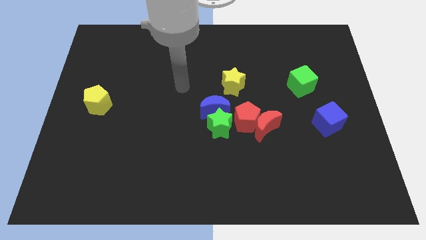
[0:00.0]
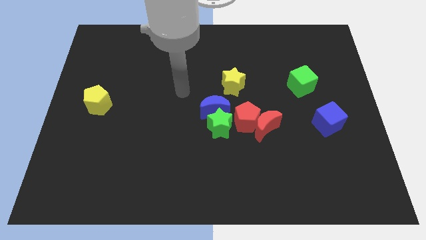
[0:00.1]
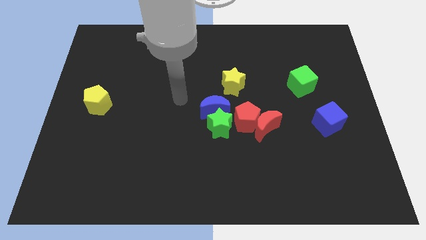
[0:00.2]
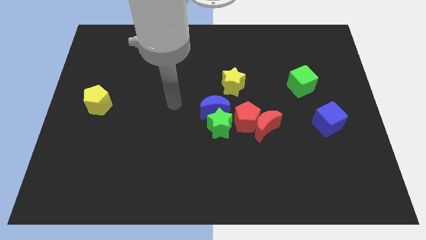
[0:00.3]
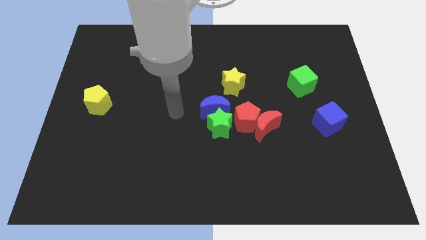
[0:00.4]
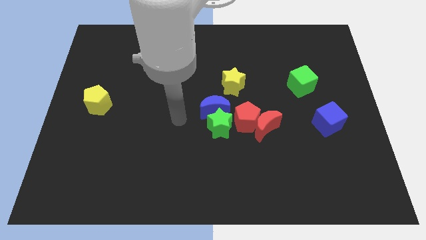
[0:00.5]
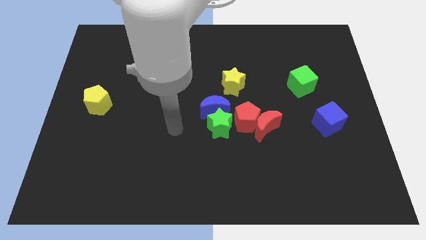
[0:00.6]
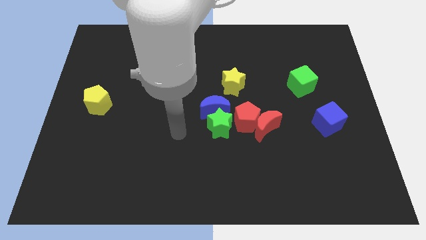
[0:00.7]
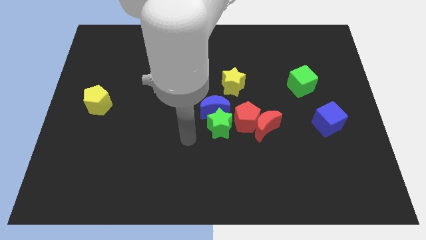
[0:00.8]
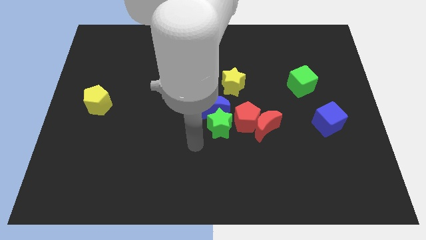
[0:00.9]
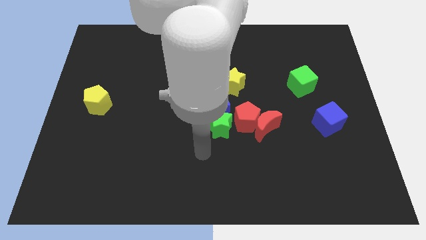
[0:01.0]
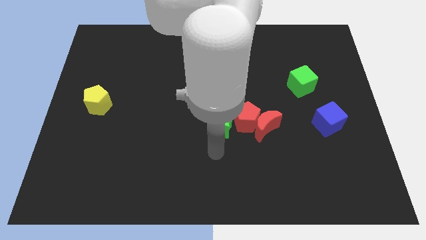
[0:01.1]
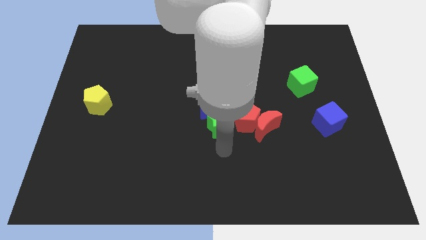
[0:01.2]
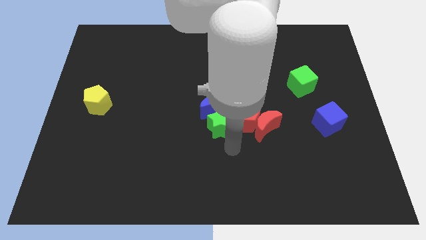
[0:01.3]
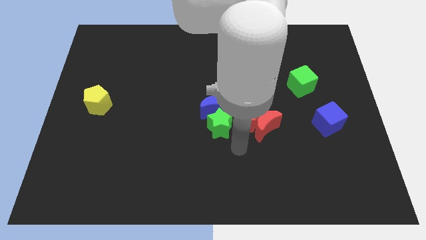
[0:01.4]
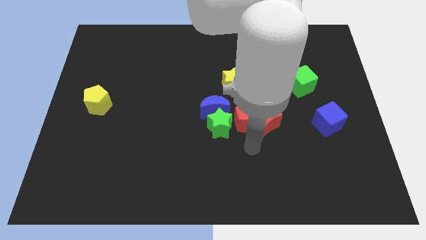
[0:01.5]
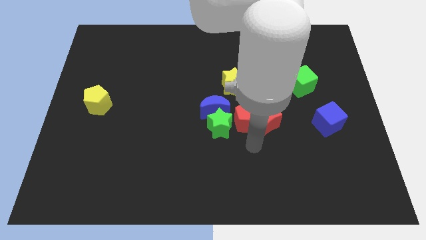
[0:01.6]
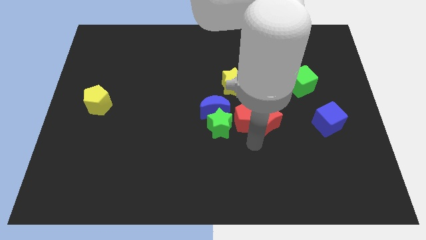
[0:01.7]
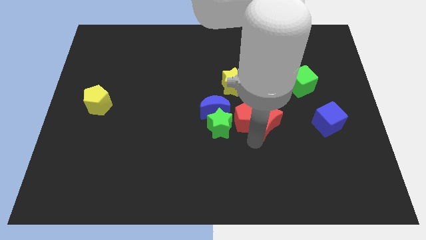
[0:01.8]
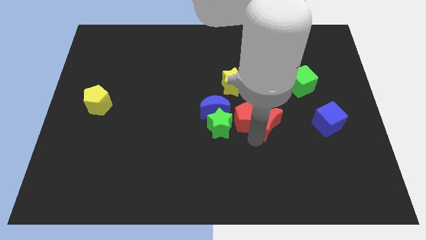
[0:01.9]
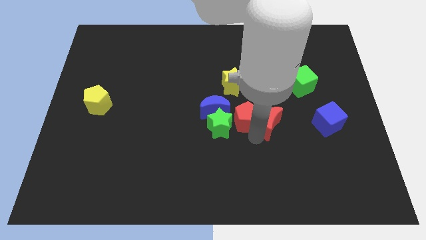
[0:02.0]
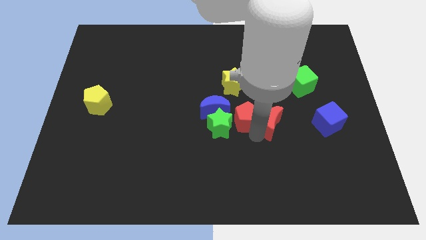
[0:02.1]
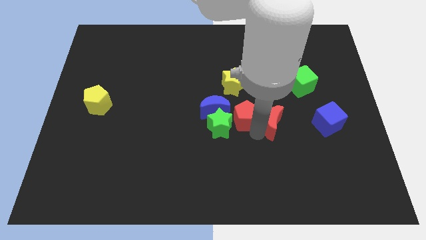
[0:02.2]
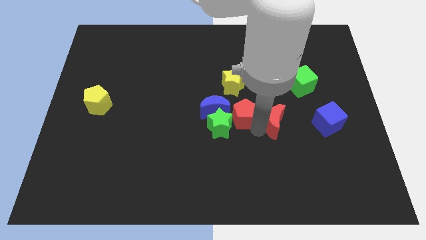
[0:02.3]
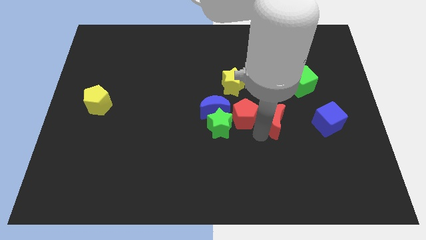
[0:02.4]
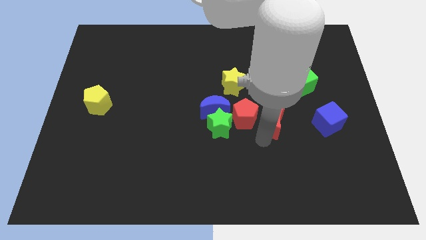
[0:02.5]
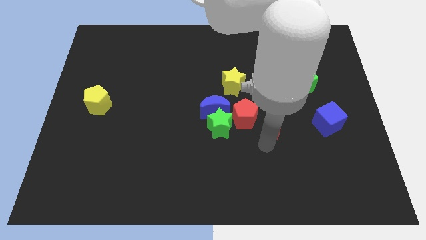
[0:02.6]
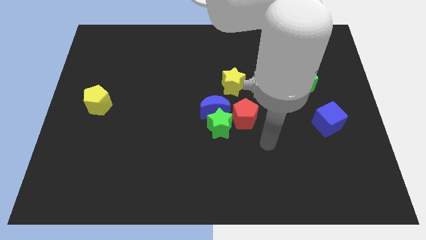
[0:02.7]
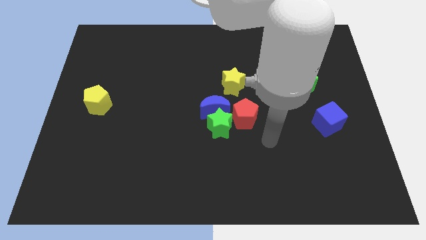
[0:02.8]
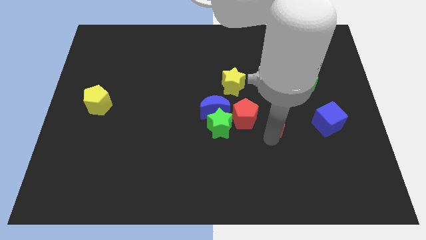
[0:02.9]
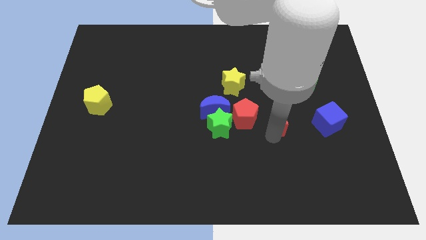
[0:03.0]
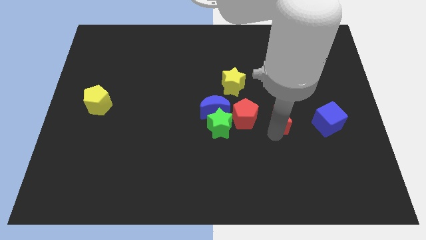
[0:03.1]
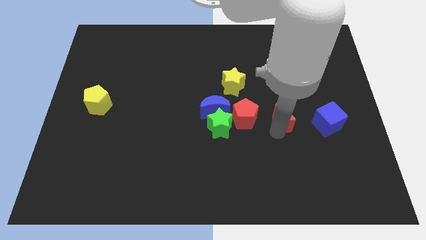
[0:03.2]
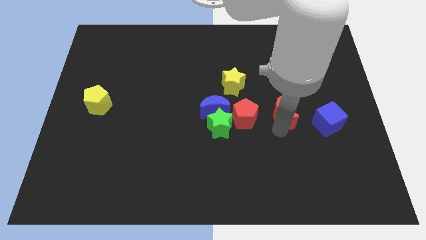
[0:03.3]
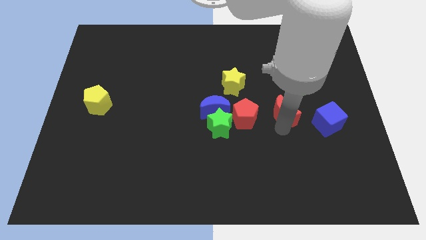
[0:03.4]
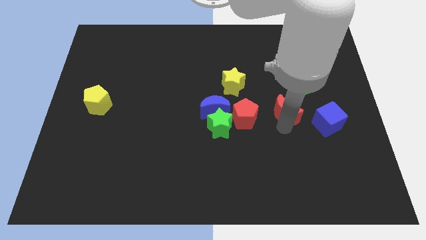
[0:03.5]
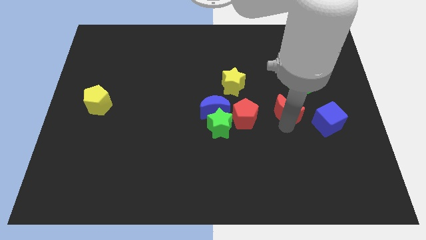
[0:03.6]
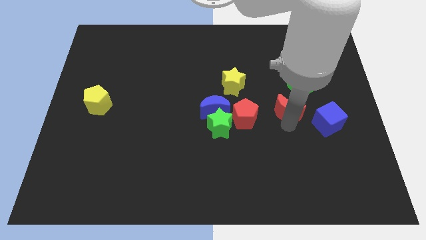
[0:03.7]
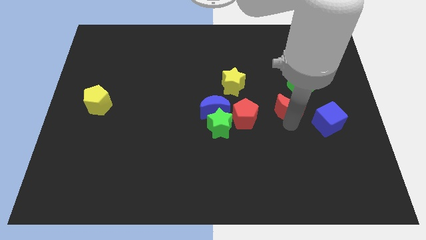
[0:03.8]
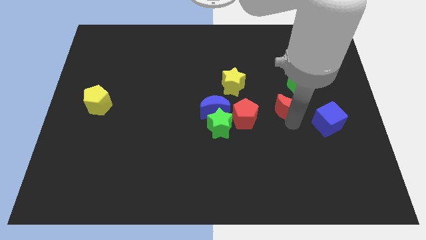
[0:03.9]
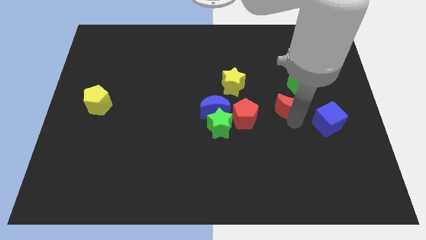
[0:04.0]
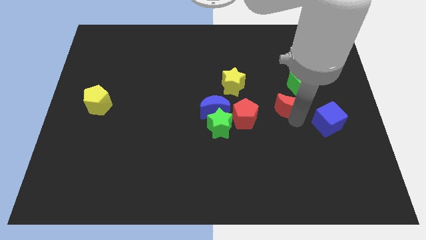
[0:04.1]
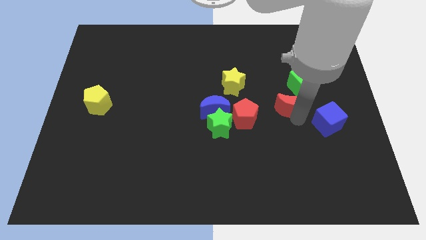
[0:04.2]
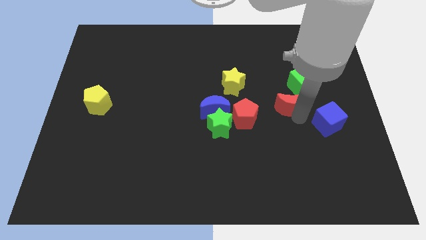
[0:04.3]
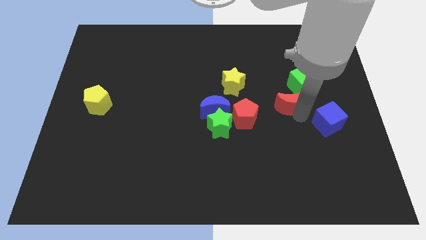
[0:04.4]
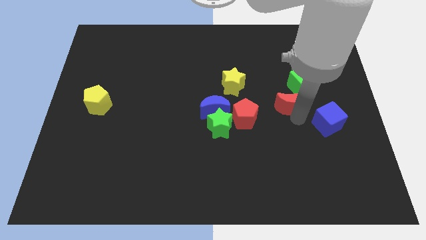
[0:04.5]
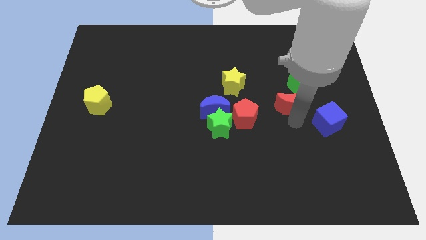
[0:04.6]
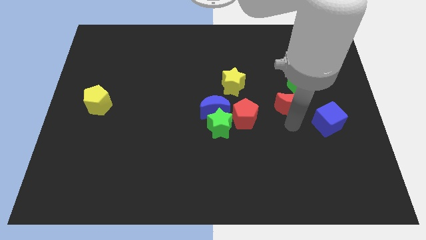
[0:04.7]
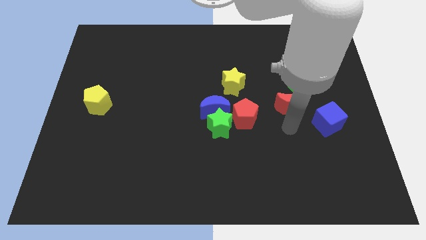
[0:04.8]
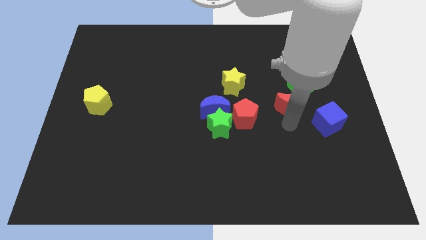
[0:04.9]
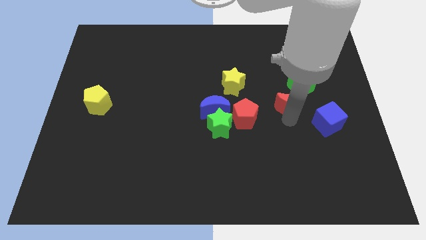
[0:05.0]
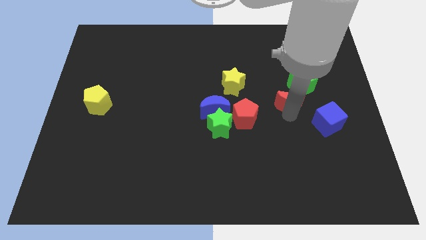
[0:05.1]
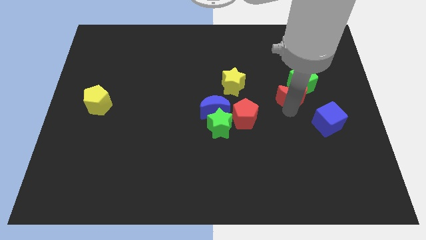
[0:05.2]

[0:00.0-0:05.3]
slide the red moon next to the green cube

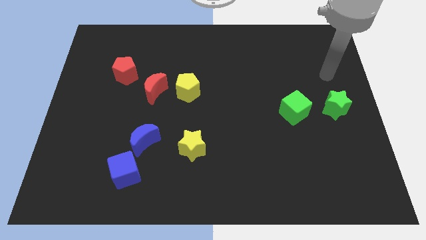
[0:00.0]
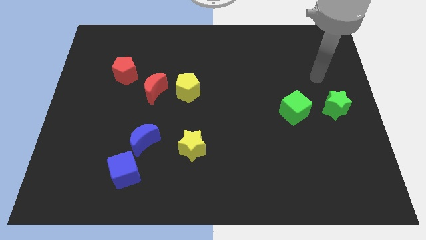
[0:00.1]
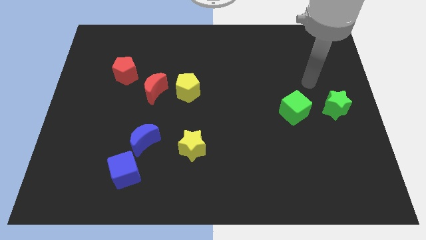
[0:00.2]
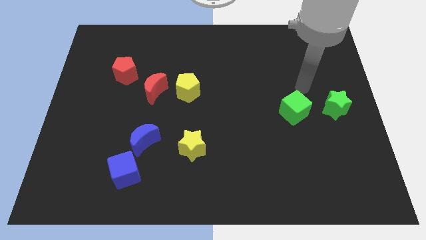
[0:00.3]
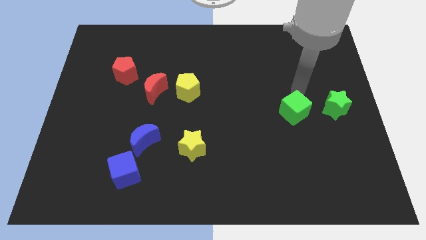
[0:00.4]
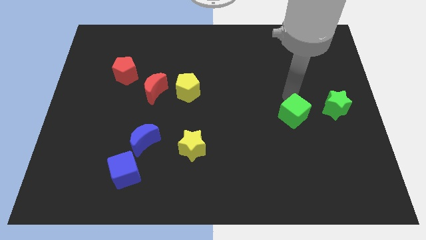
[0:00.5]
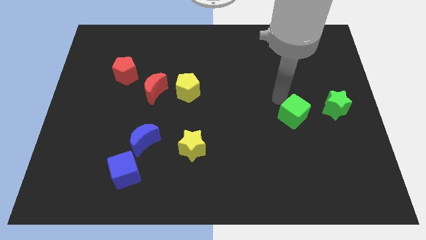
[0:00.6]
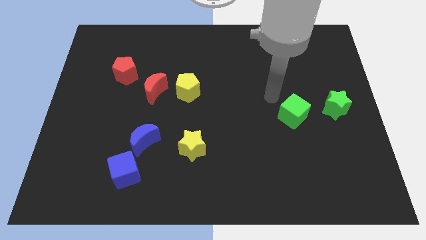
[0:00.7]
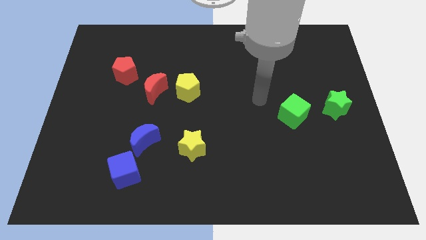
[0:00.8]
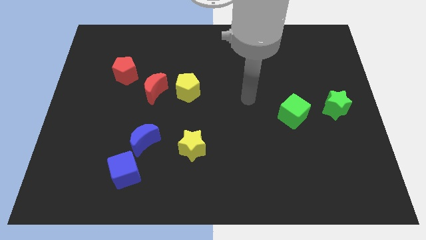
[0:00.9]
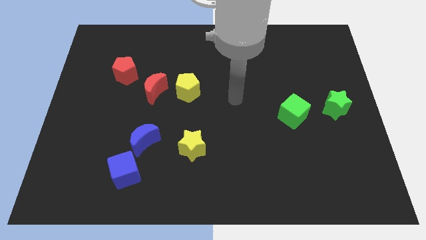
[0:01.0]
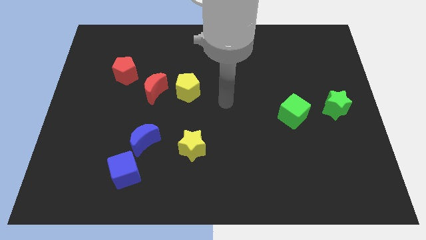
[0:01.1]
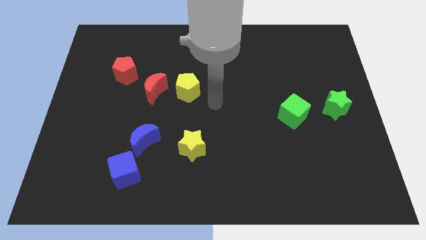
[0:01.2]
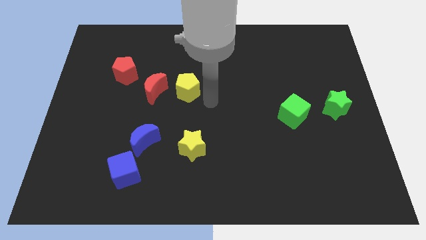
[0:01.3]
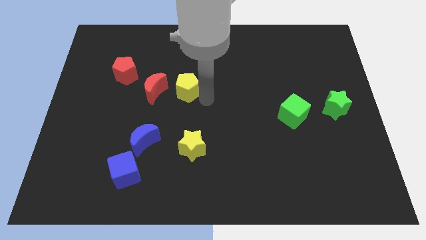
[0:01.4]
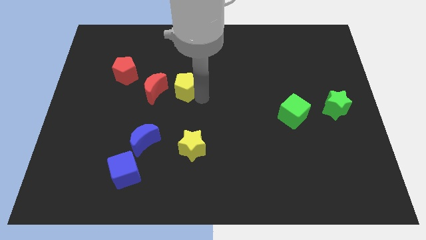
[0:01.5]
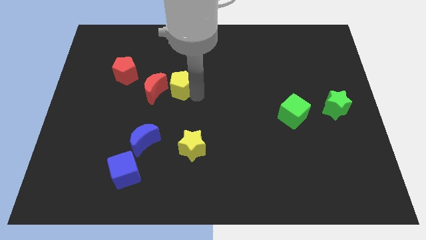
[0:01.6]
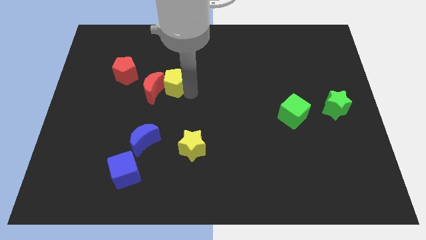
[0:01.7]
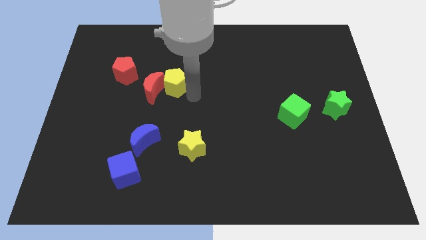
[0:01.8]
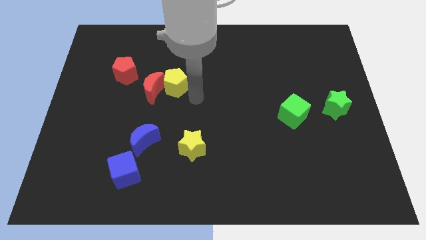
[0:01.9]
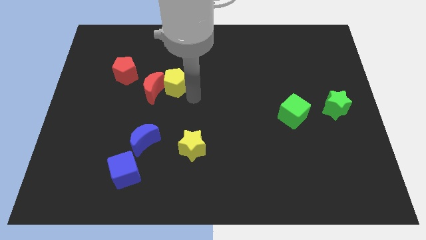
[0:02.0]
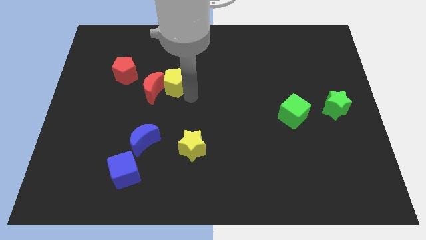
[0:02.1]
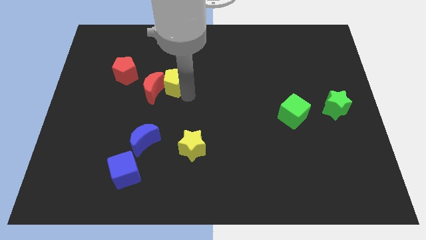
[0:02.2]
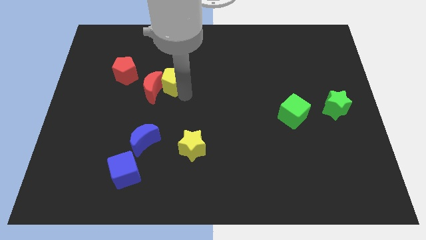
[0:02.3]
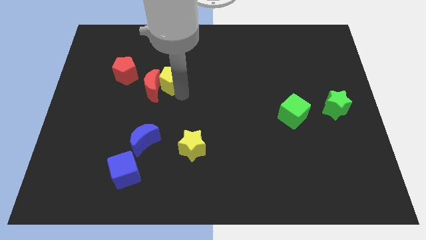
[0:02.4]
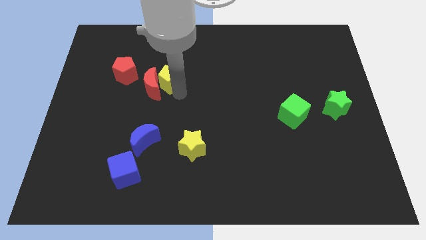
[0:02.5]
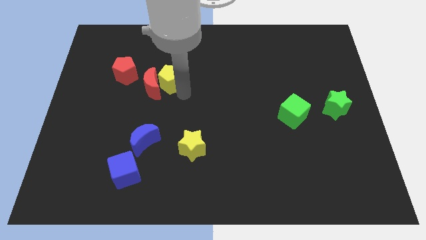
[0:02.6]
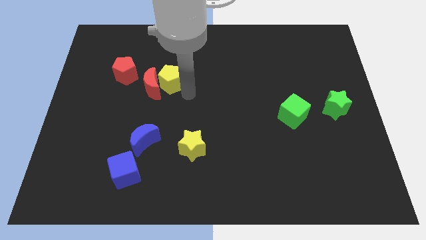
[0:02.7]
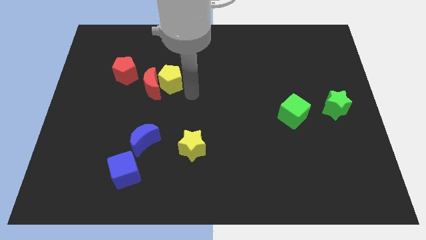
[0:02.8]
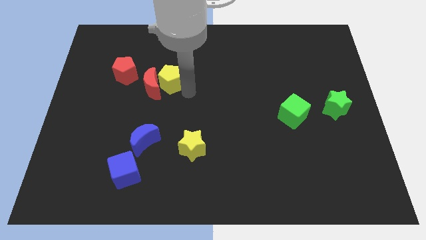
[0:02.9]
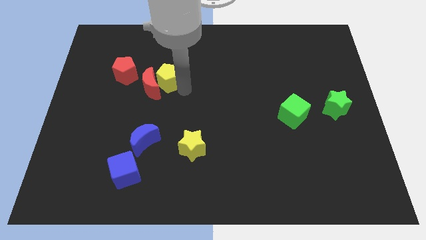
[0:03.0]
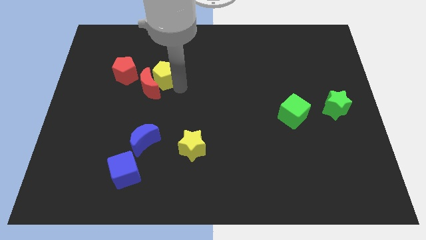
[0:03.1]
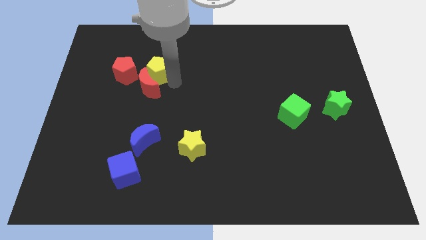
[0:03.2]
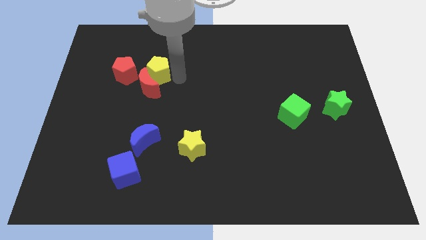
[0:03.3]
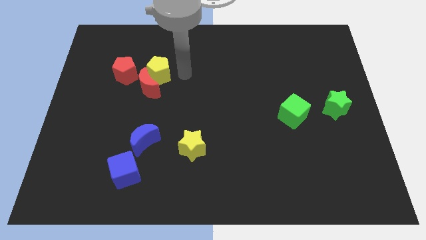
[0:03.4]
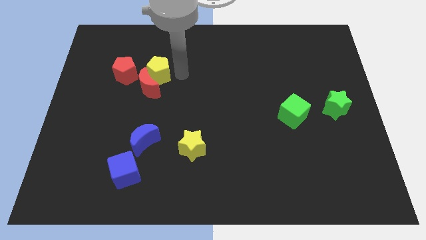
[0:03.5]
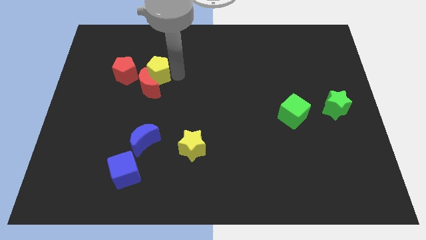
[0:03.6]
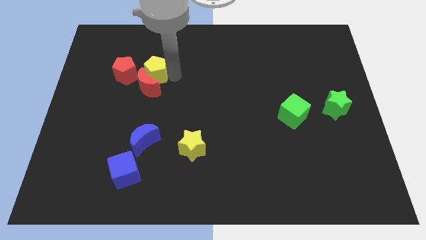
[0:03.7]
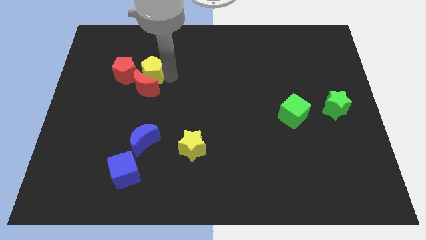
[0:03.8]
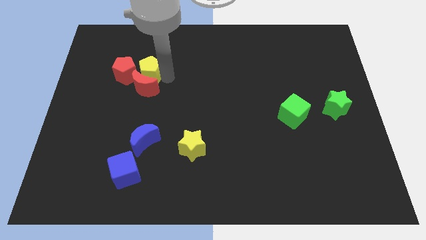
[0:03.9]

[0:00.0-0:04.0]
put the yellow pentagon next to the red pentagon
